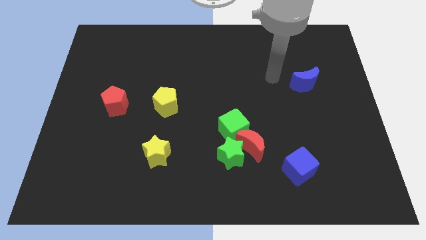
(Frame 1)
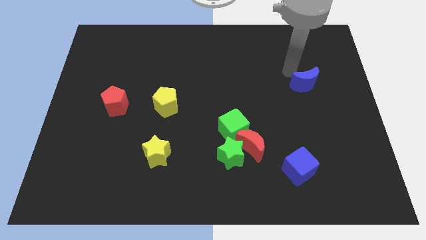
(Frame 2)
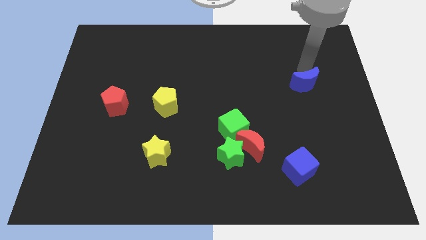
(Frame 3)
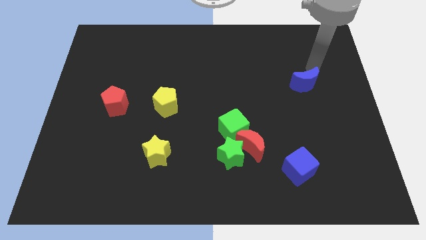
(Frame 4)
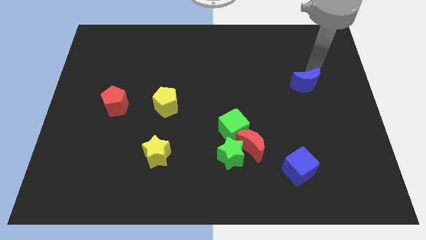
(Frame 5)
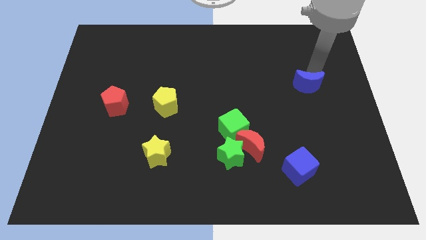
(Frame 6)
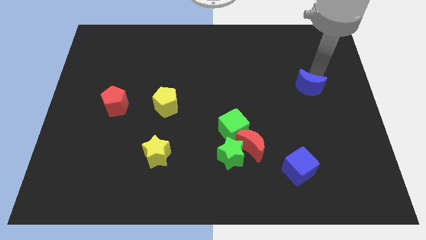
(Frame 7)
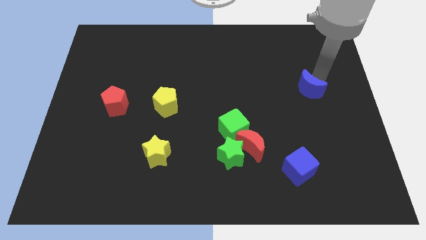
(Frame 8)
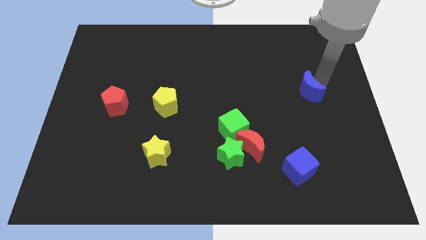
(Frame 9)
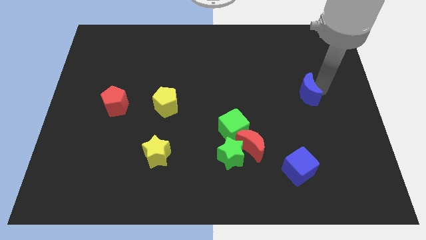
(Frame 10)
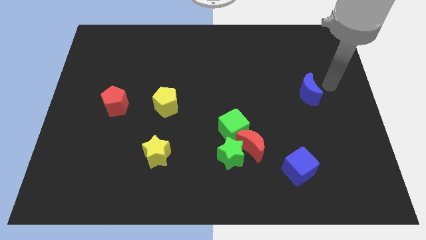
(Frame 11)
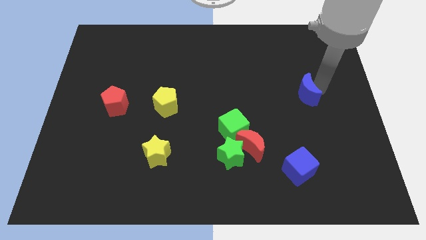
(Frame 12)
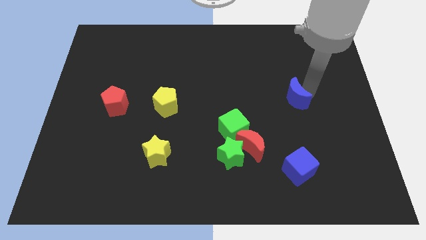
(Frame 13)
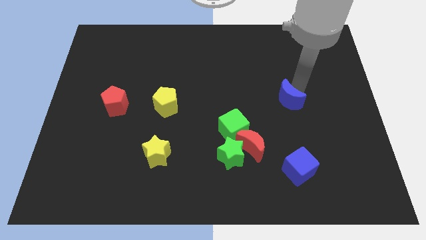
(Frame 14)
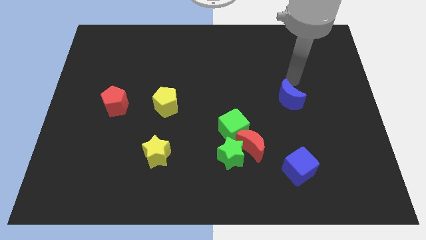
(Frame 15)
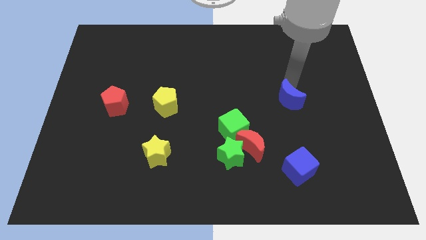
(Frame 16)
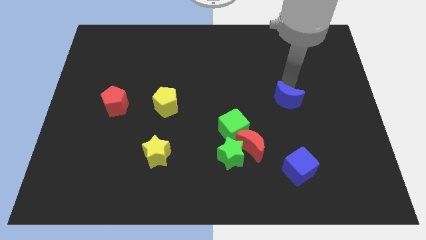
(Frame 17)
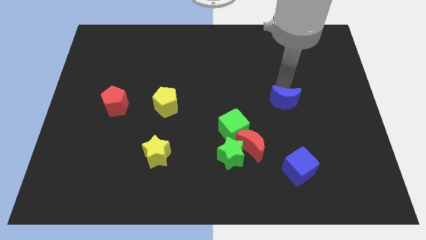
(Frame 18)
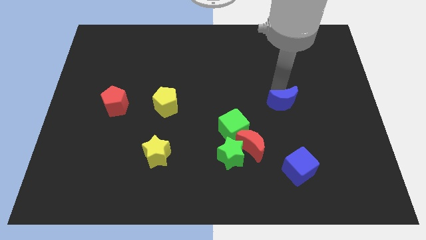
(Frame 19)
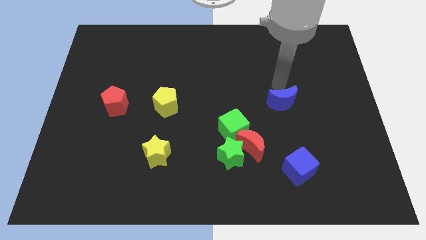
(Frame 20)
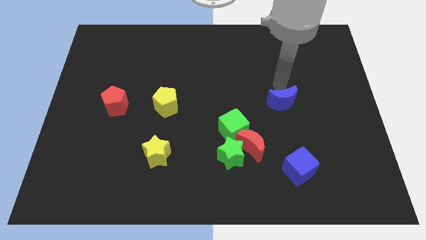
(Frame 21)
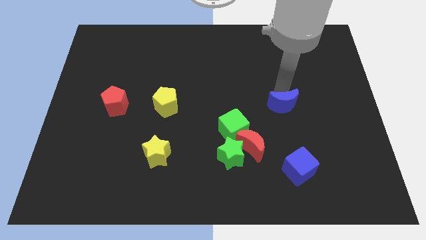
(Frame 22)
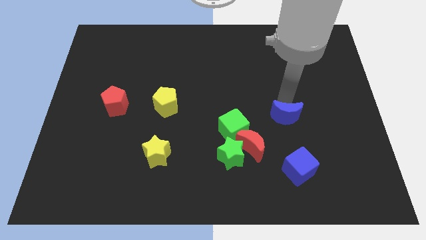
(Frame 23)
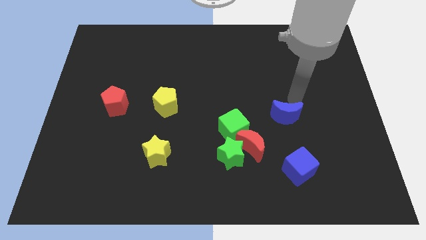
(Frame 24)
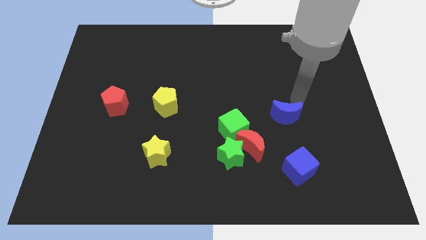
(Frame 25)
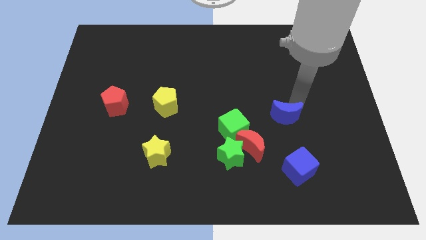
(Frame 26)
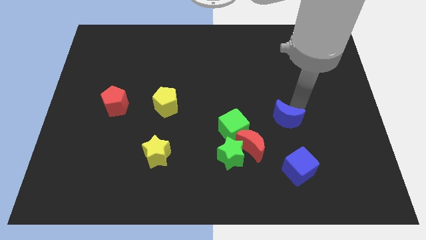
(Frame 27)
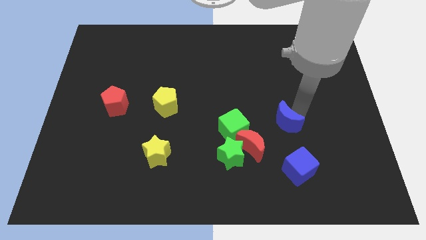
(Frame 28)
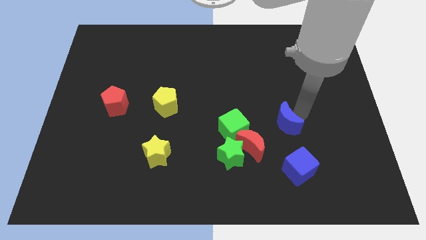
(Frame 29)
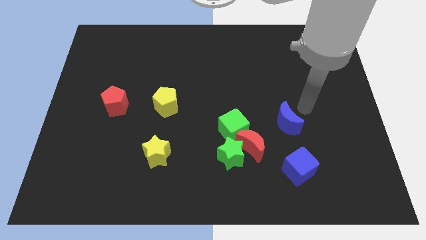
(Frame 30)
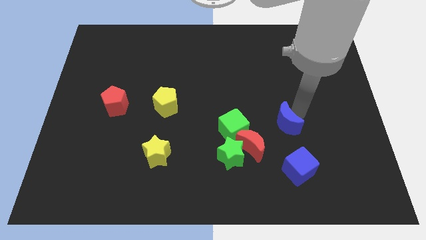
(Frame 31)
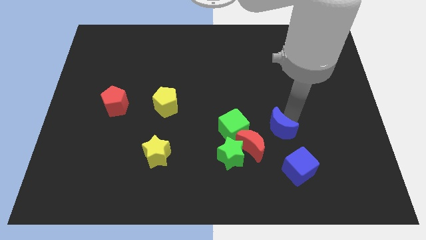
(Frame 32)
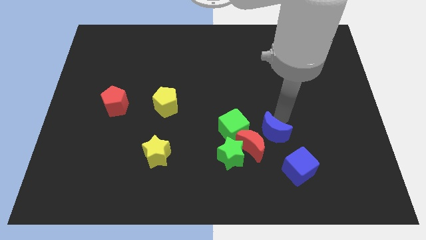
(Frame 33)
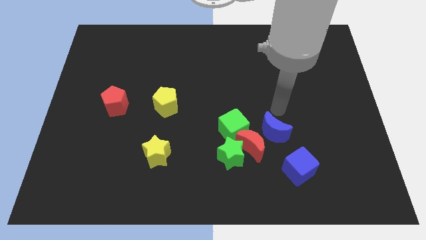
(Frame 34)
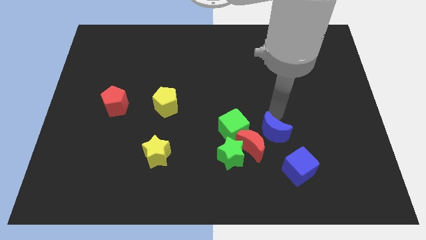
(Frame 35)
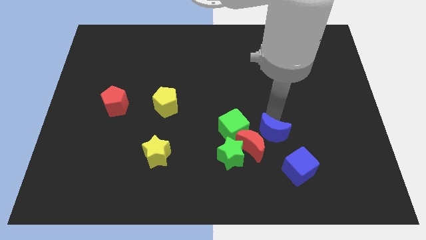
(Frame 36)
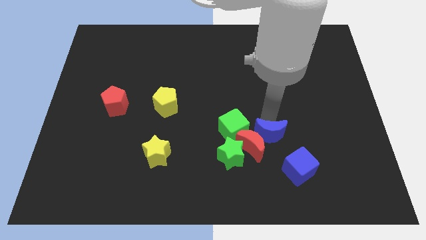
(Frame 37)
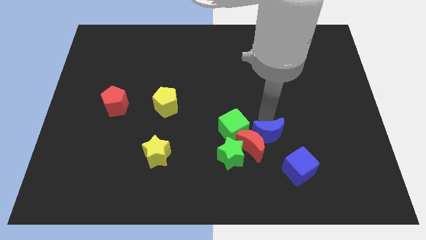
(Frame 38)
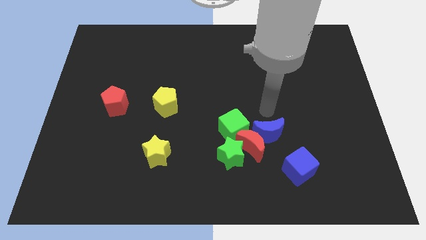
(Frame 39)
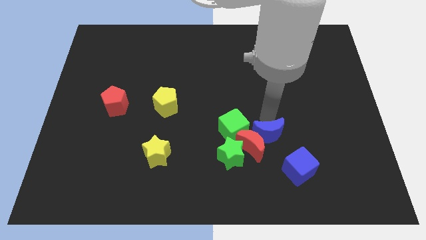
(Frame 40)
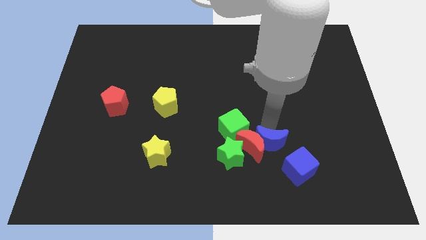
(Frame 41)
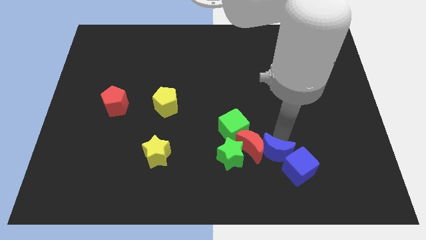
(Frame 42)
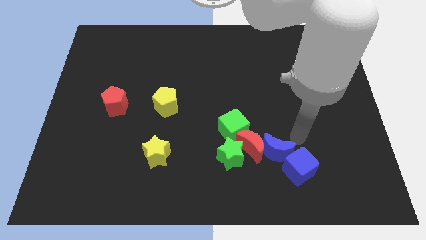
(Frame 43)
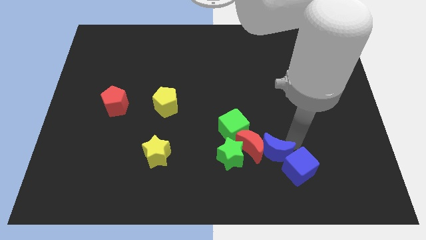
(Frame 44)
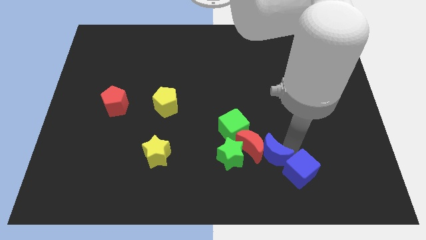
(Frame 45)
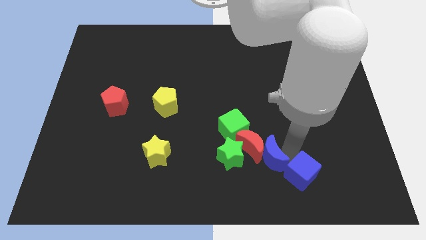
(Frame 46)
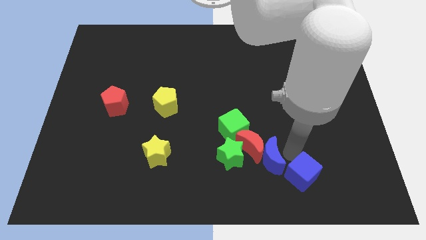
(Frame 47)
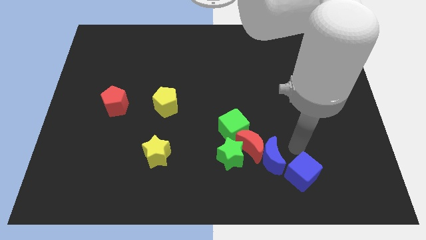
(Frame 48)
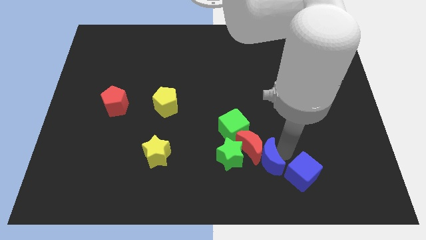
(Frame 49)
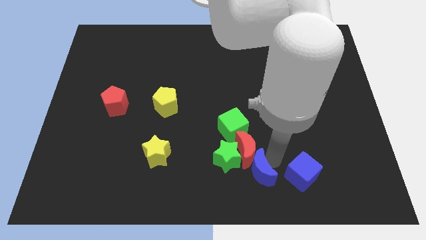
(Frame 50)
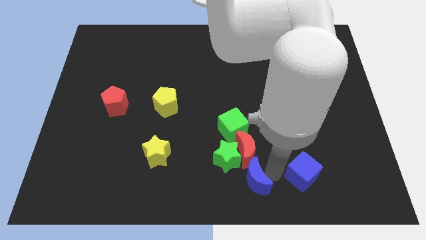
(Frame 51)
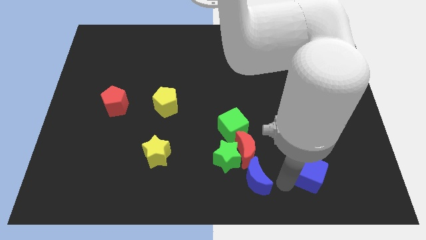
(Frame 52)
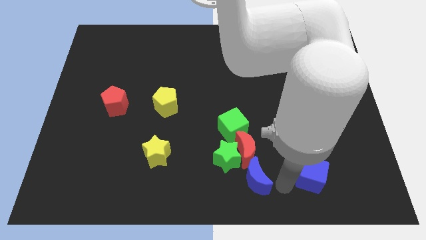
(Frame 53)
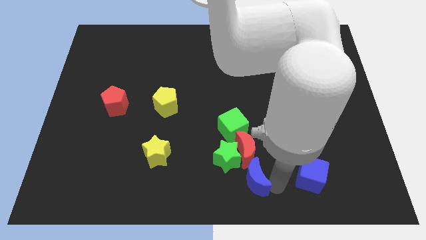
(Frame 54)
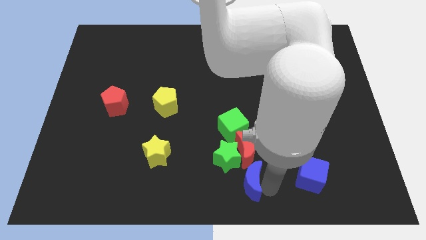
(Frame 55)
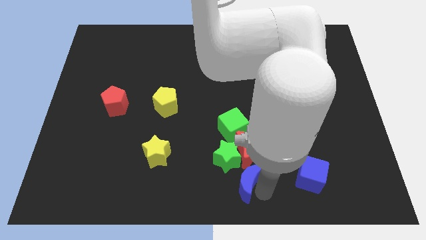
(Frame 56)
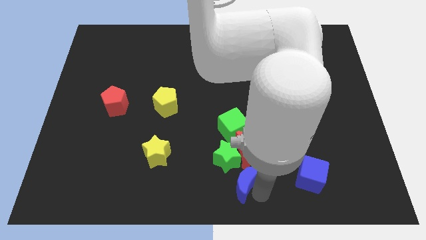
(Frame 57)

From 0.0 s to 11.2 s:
push the blue moon to the bottom left of the red moon

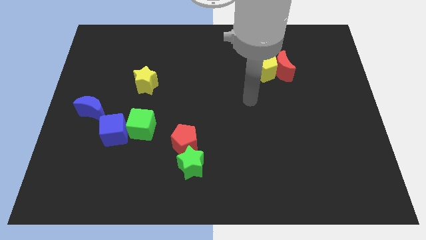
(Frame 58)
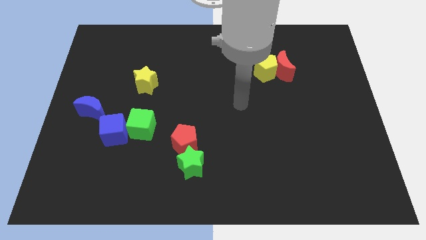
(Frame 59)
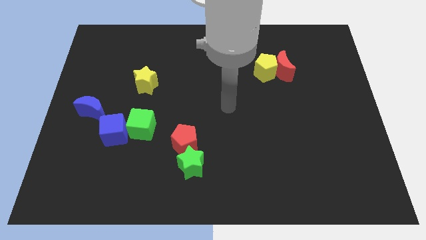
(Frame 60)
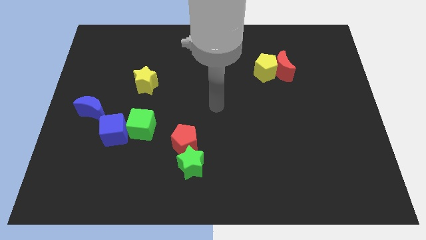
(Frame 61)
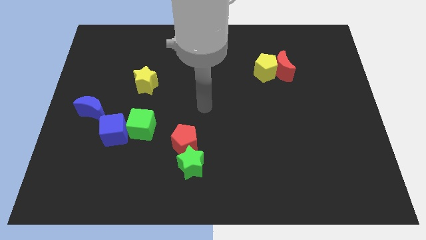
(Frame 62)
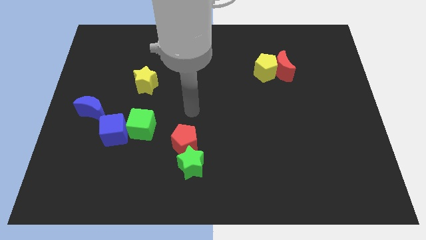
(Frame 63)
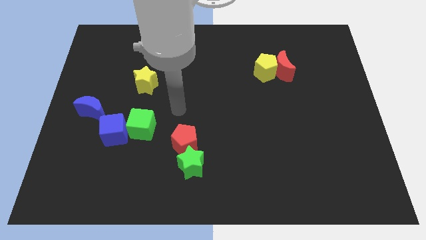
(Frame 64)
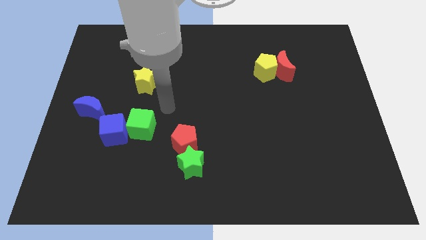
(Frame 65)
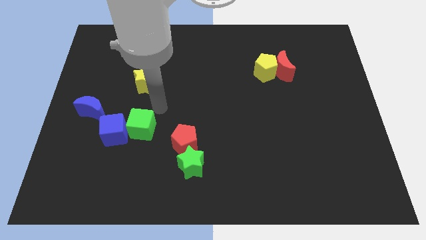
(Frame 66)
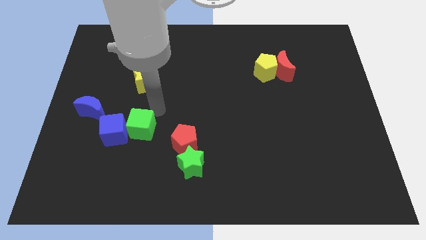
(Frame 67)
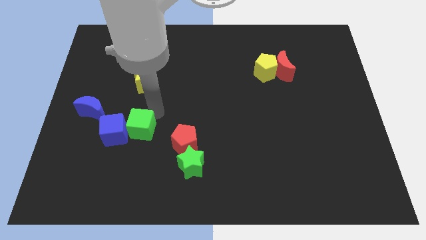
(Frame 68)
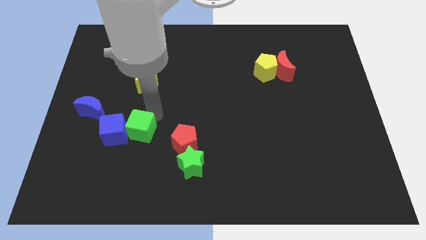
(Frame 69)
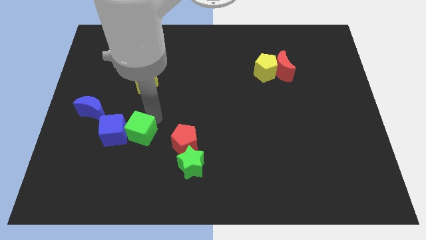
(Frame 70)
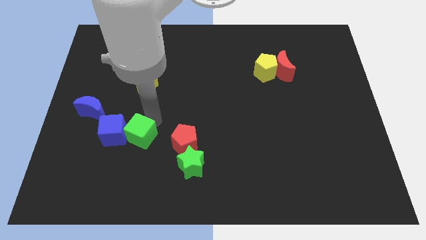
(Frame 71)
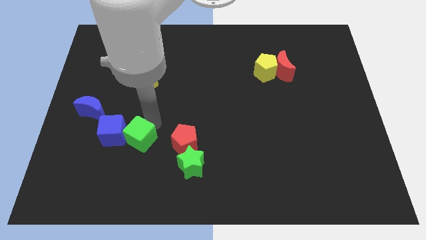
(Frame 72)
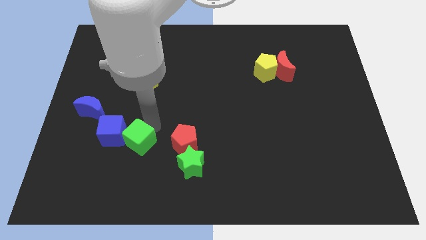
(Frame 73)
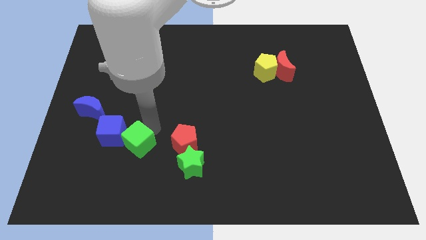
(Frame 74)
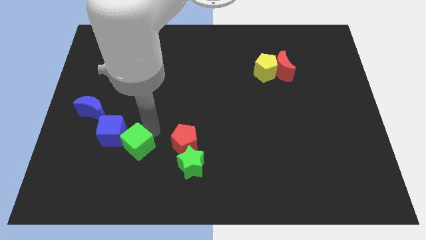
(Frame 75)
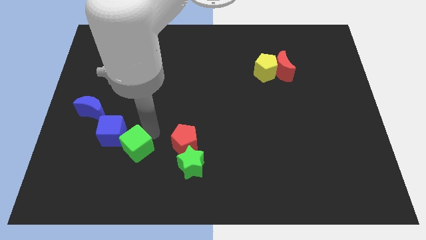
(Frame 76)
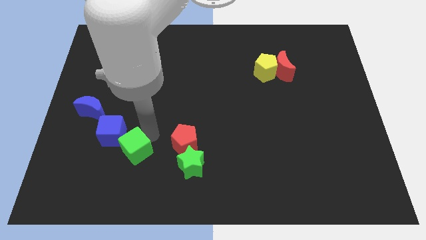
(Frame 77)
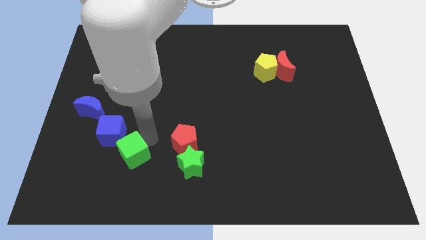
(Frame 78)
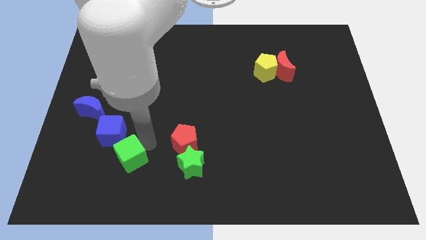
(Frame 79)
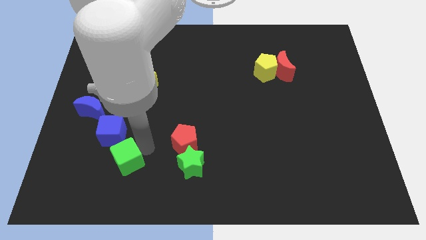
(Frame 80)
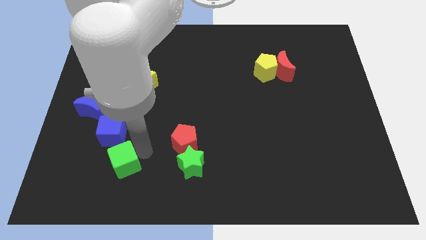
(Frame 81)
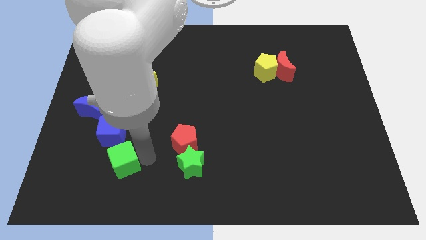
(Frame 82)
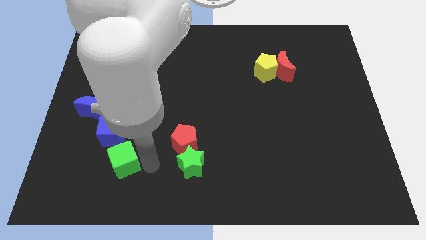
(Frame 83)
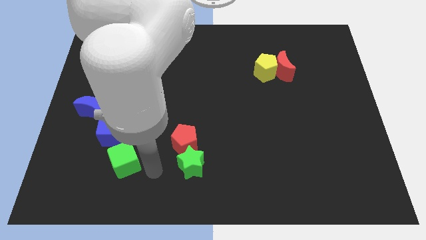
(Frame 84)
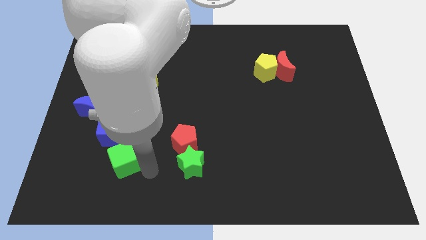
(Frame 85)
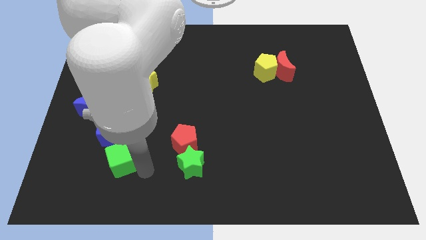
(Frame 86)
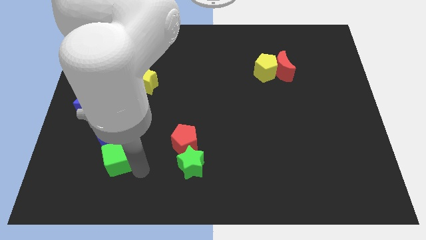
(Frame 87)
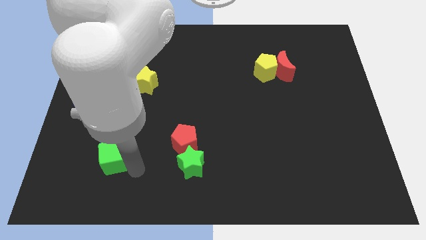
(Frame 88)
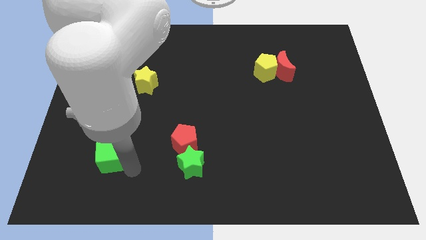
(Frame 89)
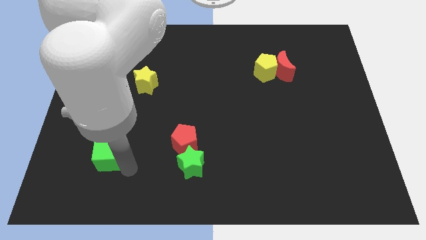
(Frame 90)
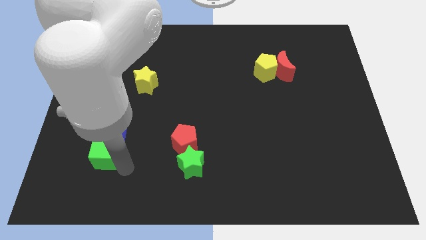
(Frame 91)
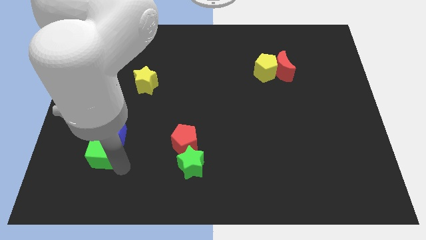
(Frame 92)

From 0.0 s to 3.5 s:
slide the green cube to the bottom of the blue moon
